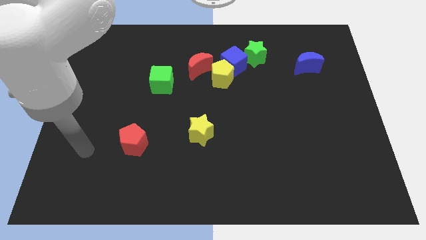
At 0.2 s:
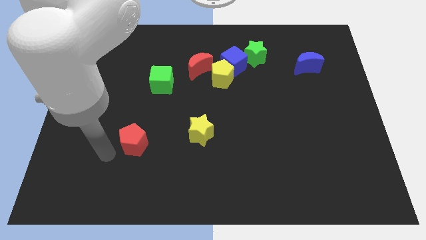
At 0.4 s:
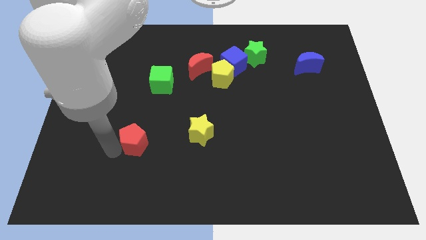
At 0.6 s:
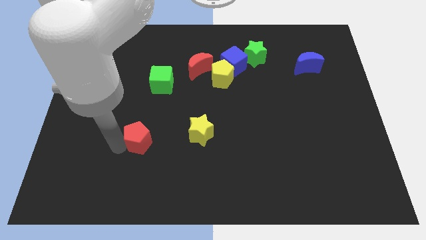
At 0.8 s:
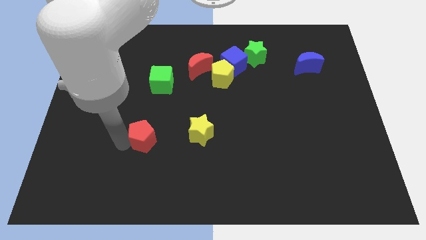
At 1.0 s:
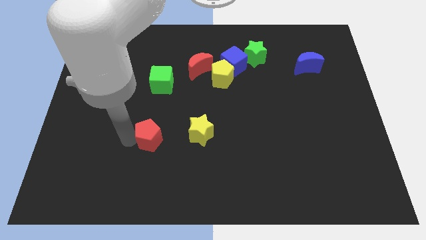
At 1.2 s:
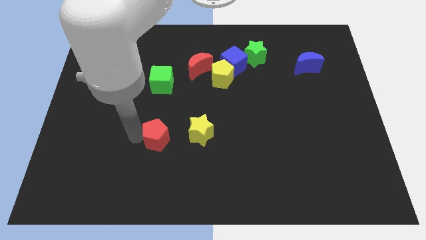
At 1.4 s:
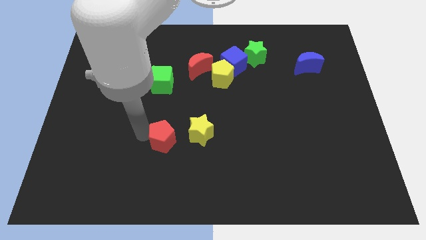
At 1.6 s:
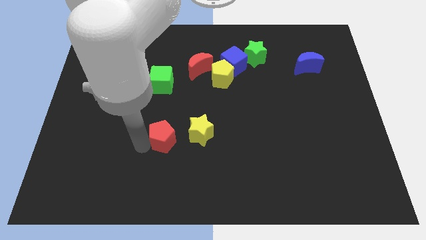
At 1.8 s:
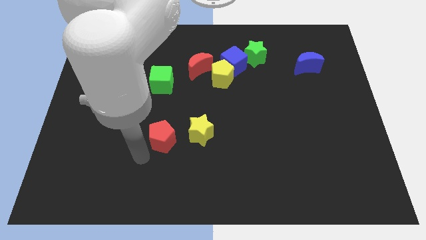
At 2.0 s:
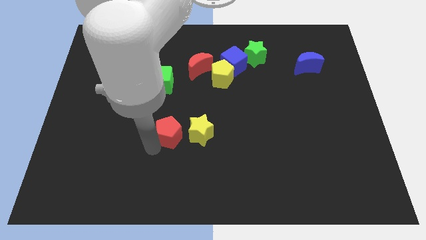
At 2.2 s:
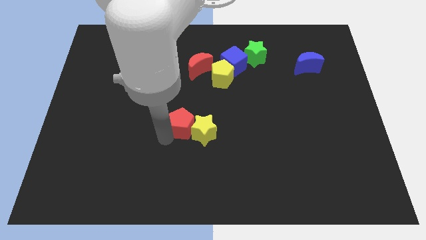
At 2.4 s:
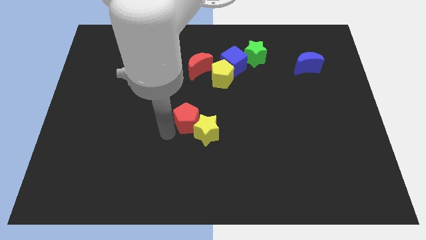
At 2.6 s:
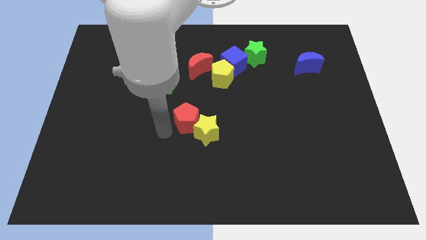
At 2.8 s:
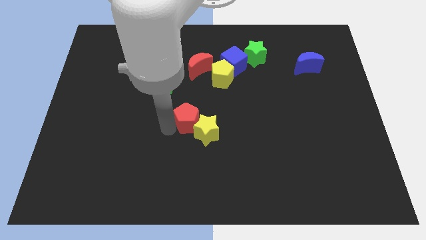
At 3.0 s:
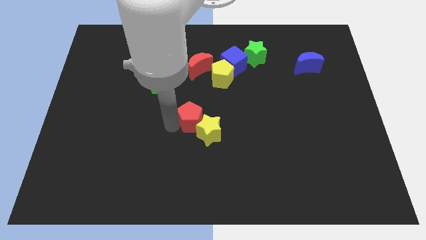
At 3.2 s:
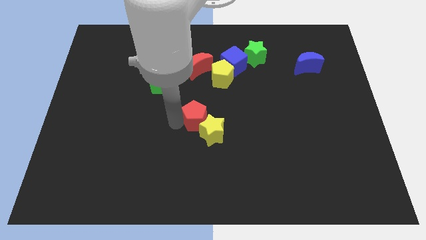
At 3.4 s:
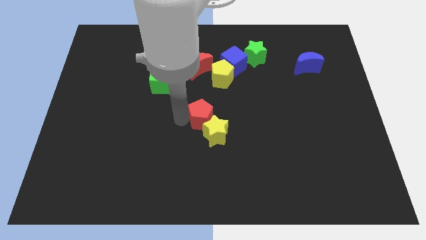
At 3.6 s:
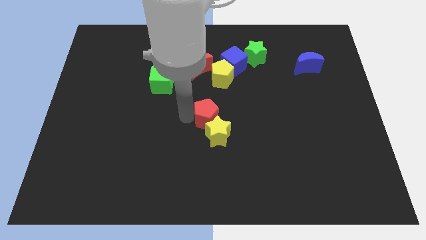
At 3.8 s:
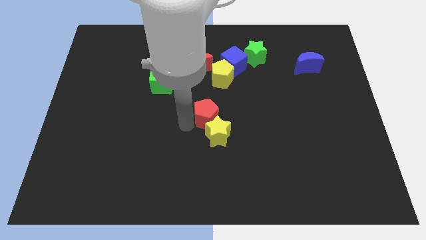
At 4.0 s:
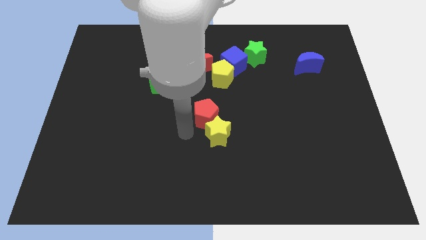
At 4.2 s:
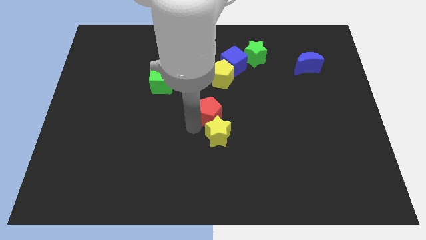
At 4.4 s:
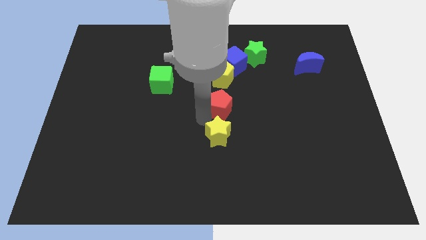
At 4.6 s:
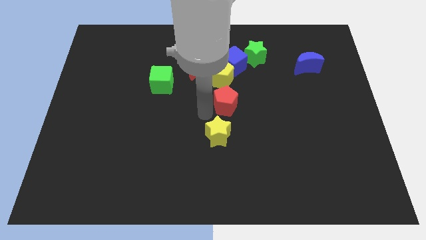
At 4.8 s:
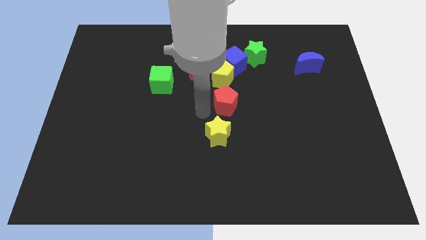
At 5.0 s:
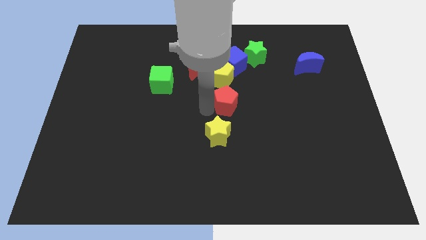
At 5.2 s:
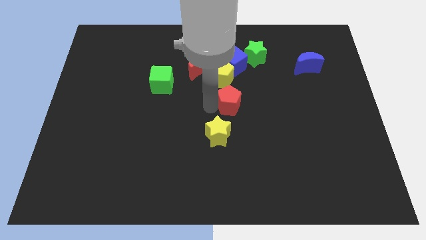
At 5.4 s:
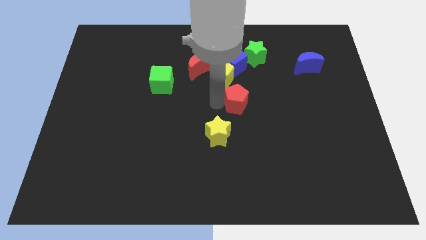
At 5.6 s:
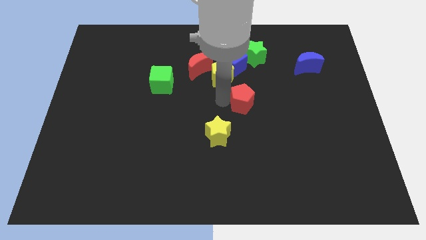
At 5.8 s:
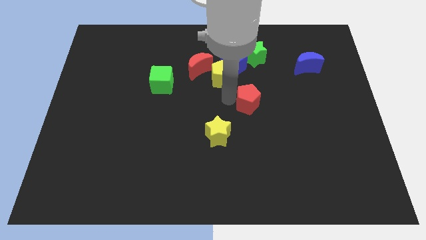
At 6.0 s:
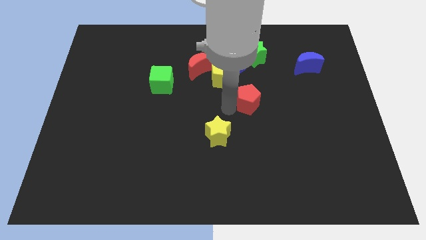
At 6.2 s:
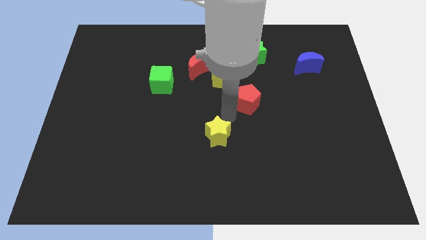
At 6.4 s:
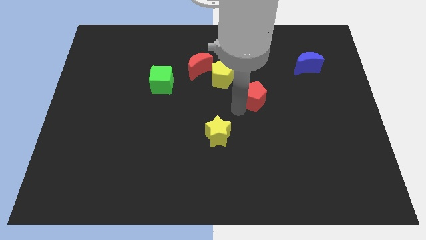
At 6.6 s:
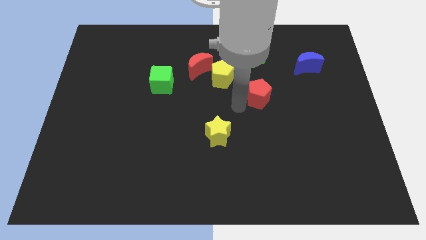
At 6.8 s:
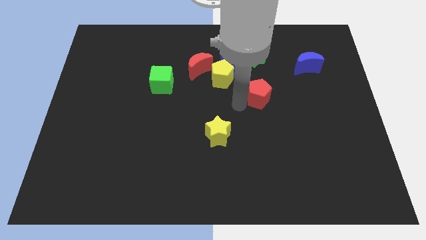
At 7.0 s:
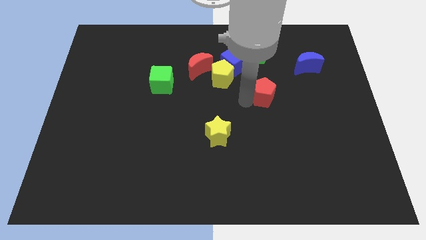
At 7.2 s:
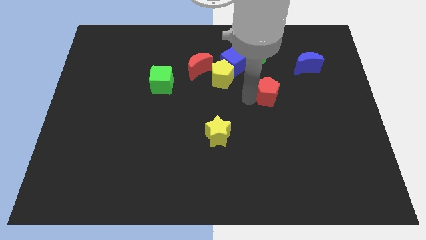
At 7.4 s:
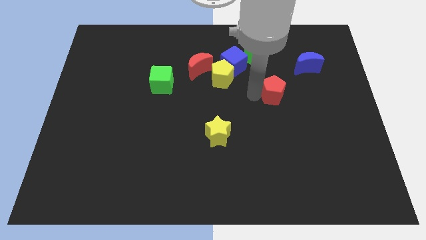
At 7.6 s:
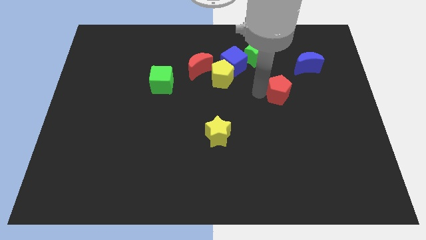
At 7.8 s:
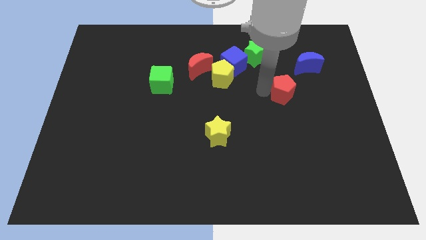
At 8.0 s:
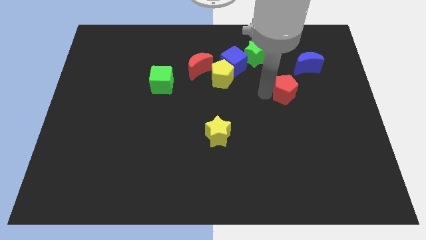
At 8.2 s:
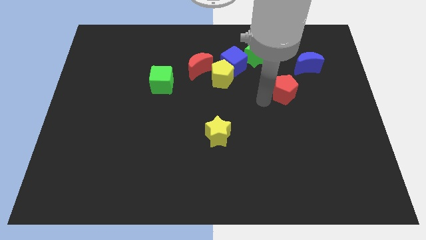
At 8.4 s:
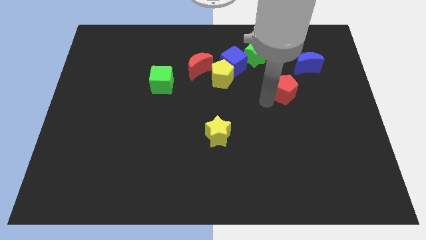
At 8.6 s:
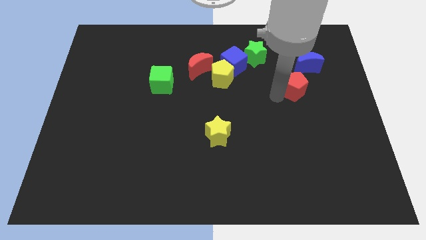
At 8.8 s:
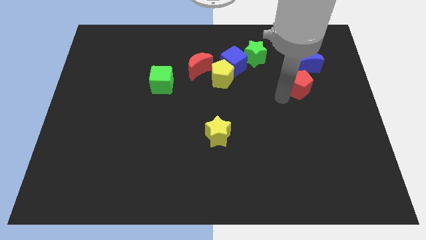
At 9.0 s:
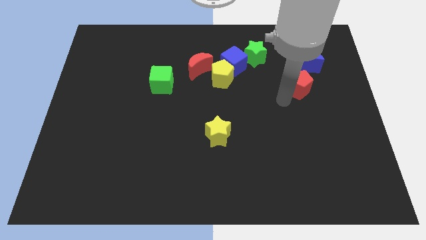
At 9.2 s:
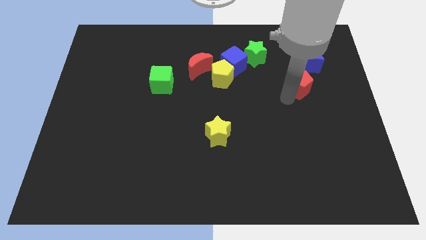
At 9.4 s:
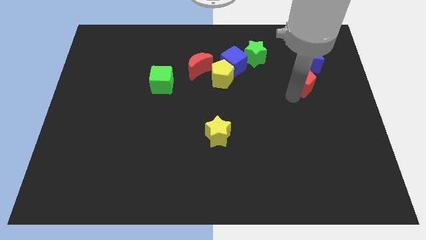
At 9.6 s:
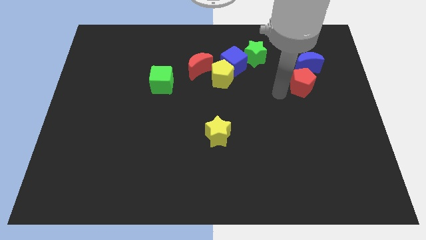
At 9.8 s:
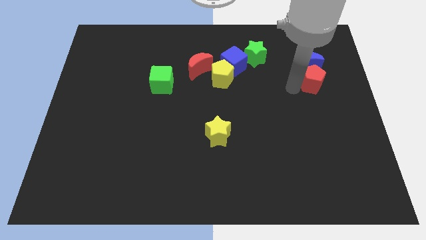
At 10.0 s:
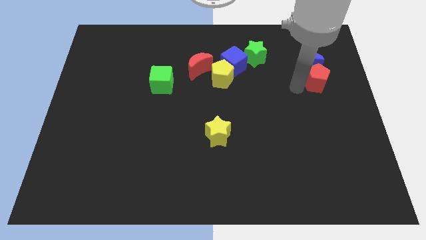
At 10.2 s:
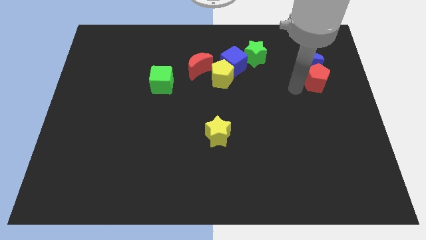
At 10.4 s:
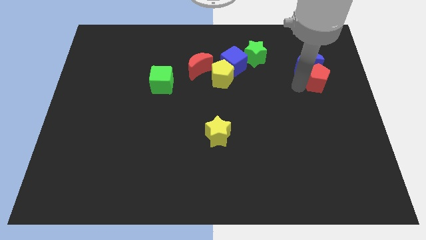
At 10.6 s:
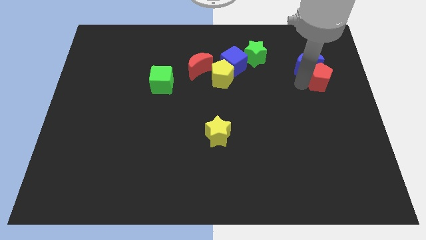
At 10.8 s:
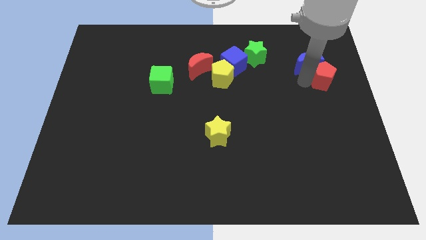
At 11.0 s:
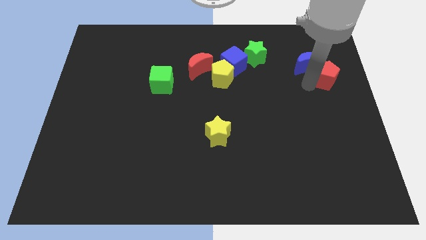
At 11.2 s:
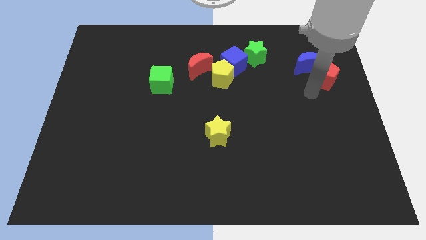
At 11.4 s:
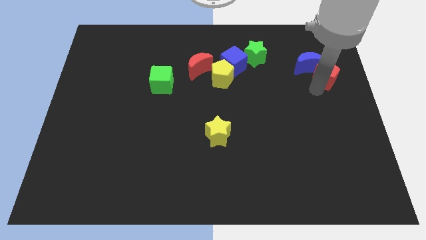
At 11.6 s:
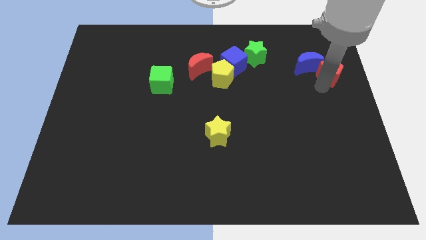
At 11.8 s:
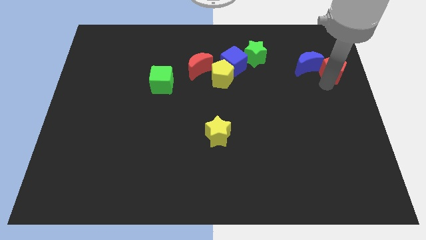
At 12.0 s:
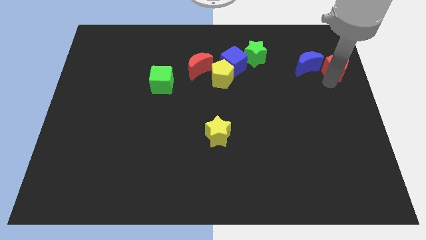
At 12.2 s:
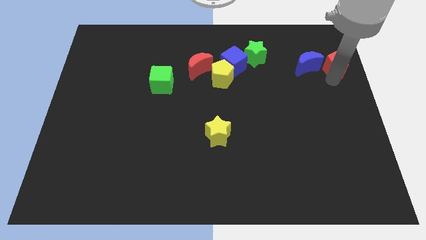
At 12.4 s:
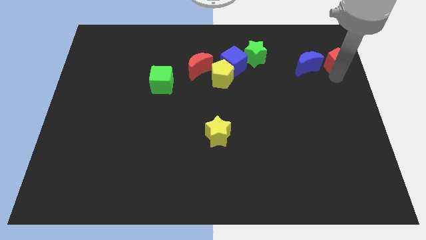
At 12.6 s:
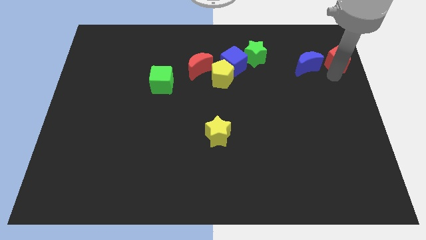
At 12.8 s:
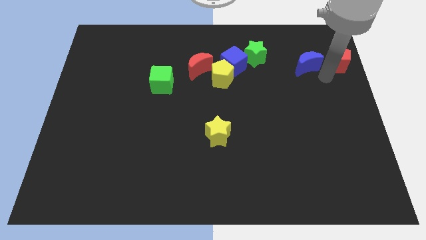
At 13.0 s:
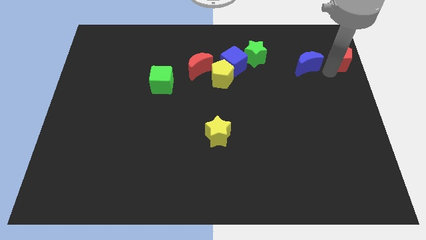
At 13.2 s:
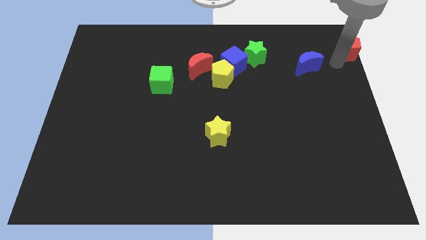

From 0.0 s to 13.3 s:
slide the red pentagon to the top right corner
